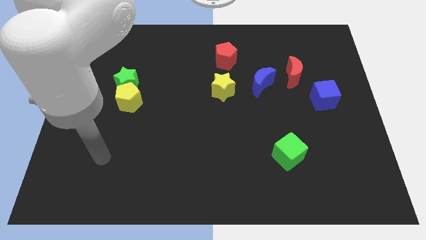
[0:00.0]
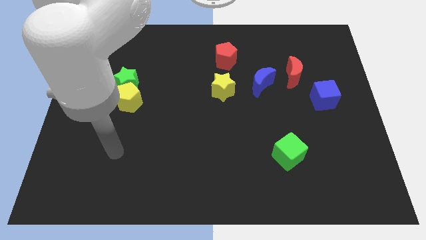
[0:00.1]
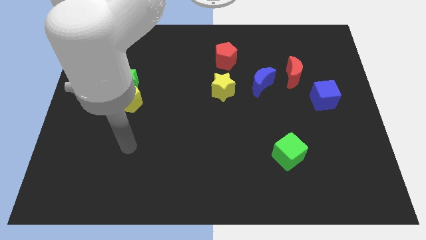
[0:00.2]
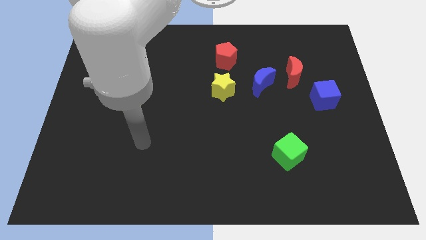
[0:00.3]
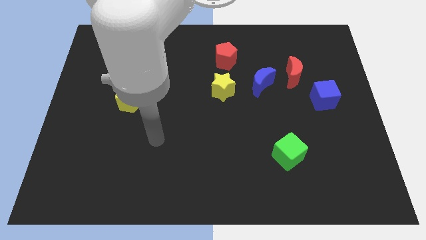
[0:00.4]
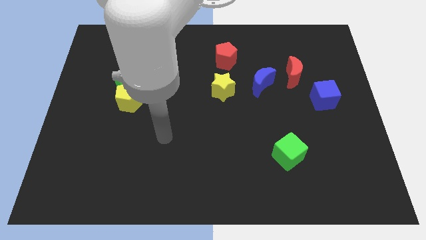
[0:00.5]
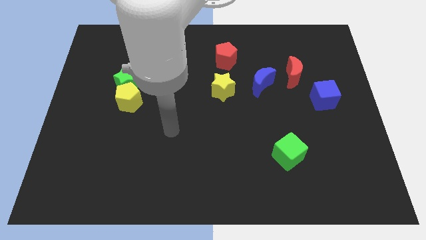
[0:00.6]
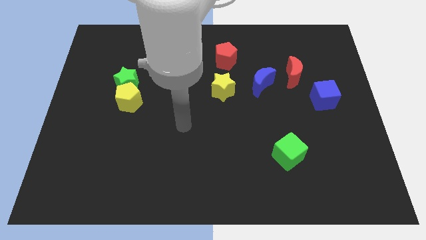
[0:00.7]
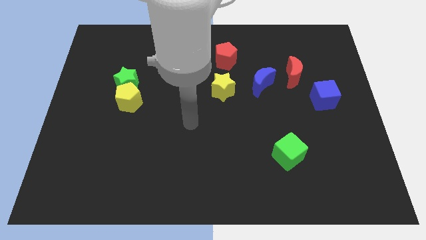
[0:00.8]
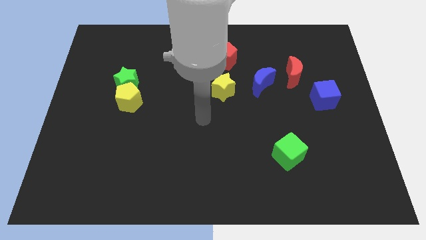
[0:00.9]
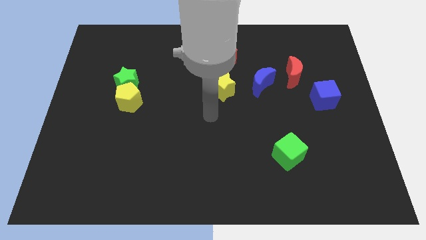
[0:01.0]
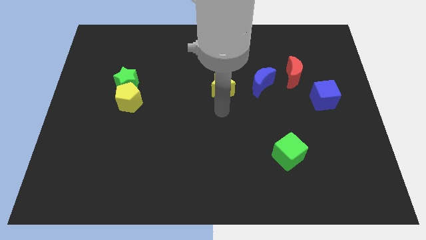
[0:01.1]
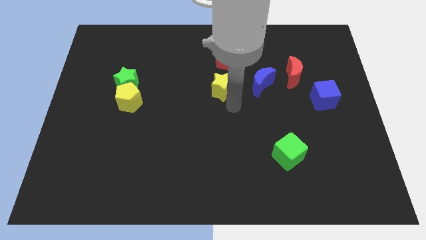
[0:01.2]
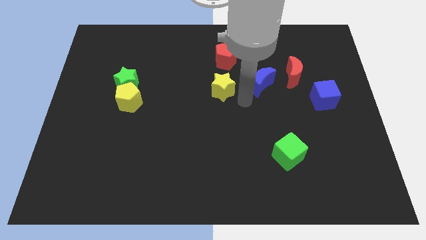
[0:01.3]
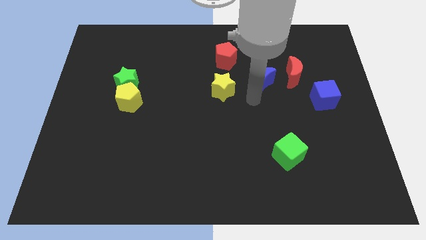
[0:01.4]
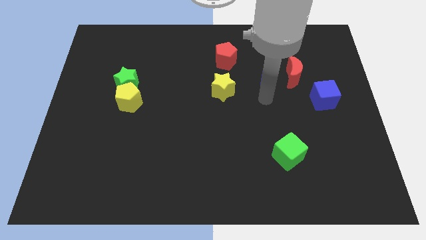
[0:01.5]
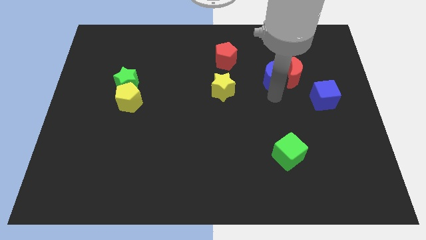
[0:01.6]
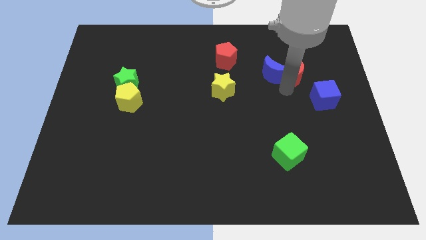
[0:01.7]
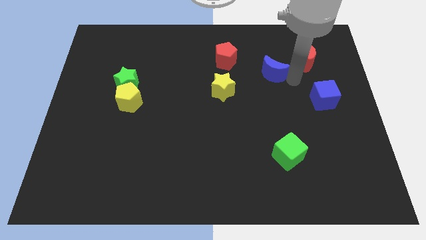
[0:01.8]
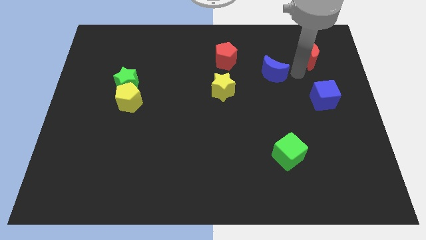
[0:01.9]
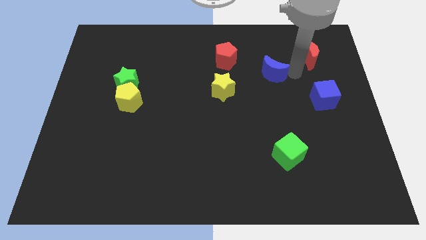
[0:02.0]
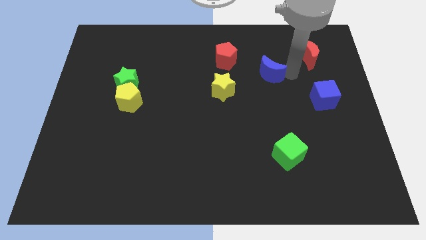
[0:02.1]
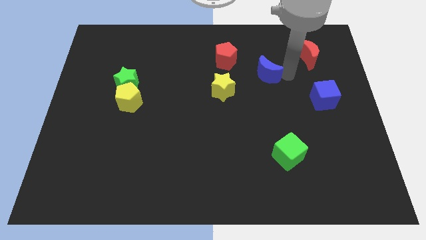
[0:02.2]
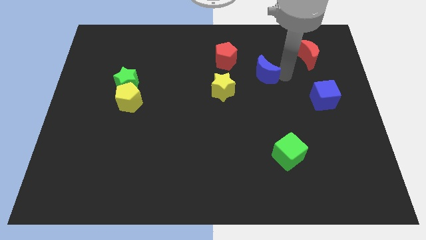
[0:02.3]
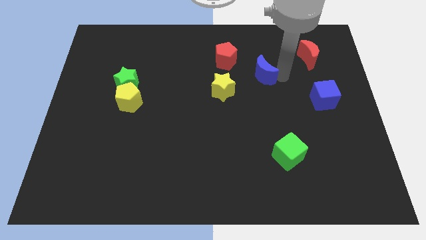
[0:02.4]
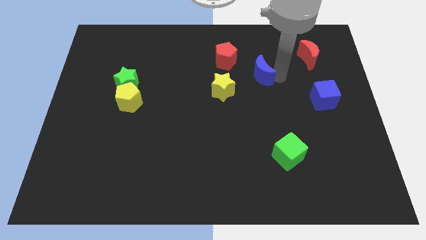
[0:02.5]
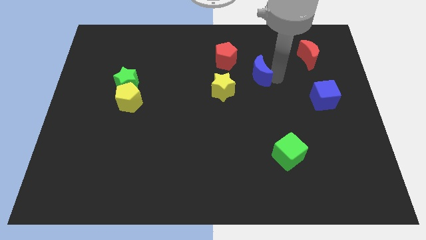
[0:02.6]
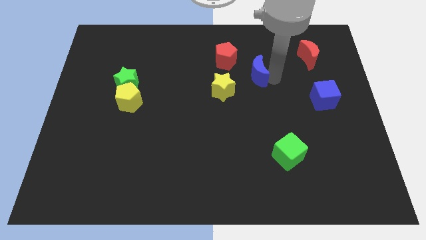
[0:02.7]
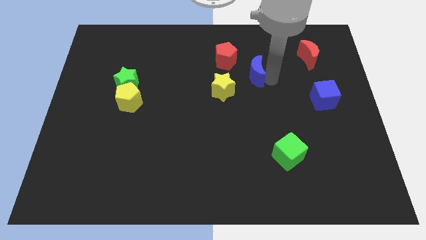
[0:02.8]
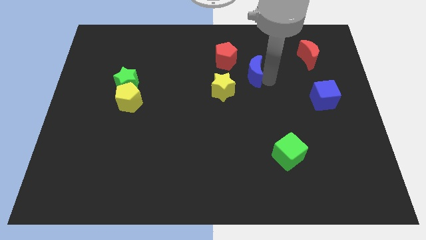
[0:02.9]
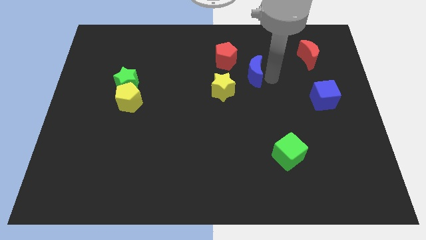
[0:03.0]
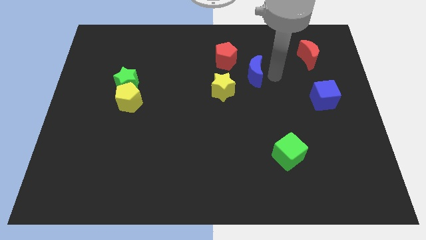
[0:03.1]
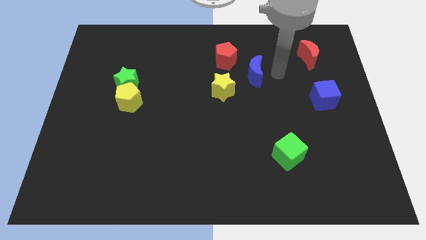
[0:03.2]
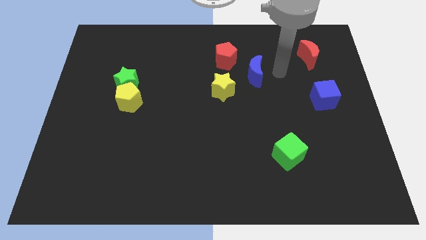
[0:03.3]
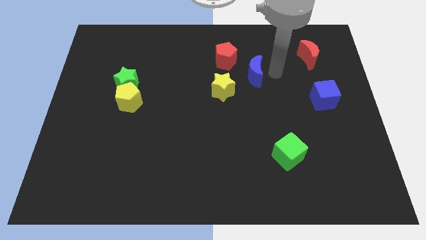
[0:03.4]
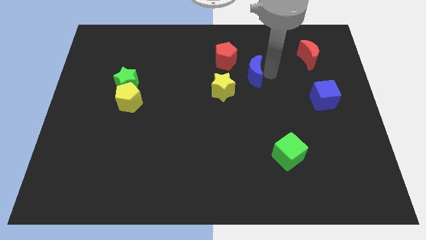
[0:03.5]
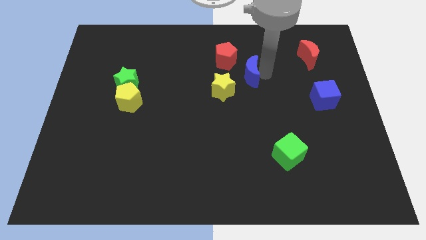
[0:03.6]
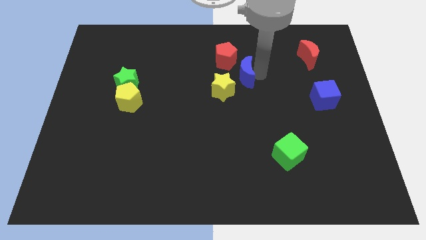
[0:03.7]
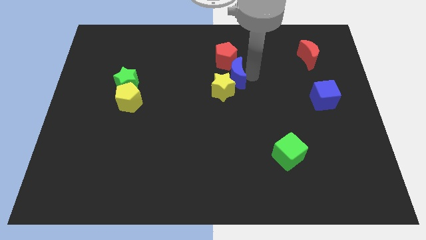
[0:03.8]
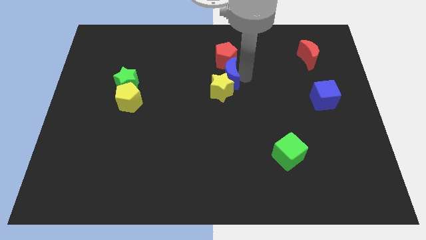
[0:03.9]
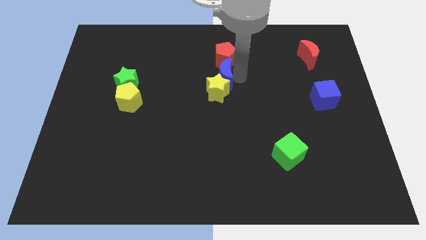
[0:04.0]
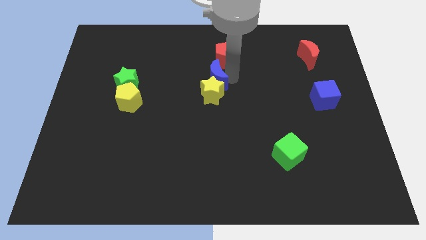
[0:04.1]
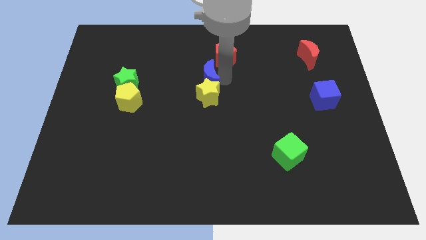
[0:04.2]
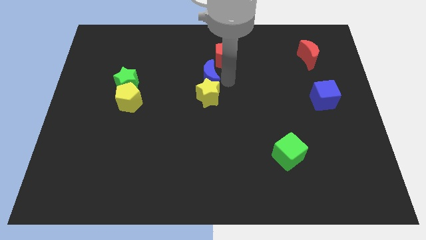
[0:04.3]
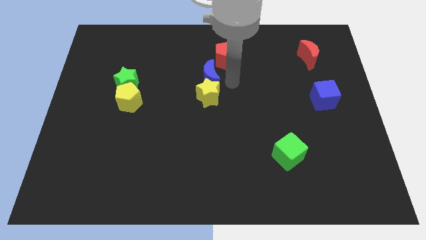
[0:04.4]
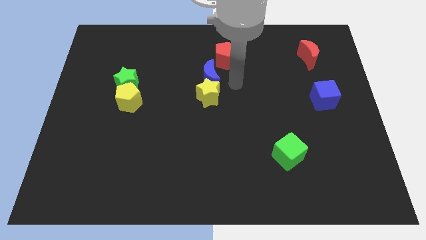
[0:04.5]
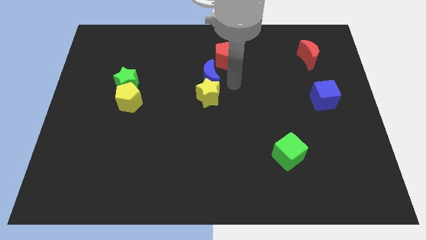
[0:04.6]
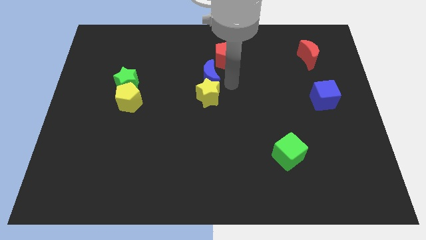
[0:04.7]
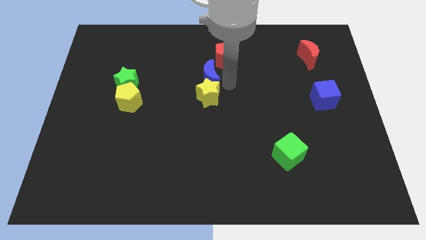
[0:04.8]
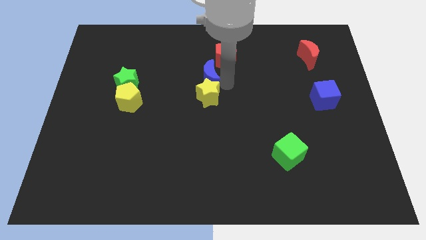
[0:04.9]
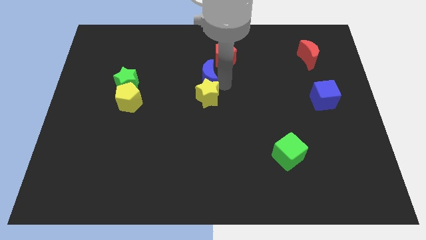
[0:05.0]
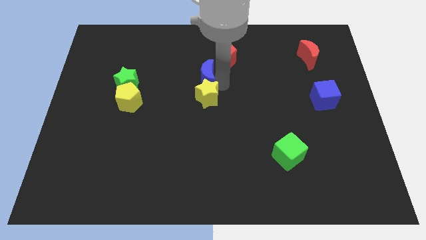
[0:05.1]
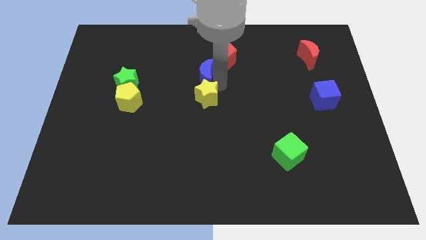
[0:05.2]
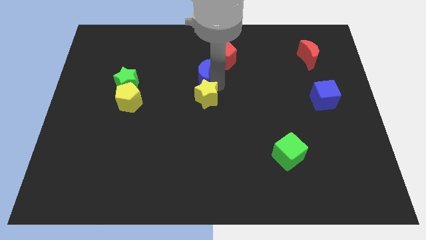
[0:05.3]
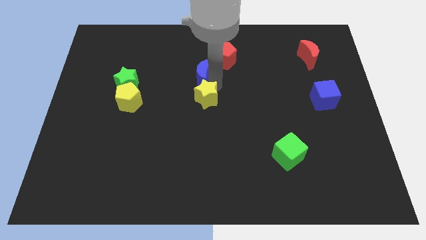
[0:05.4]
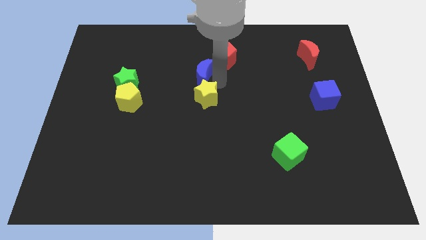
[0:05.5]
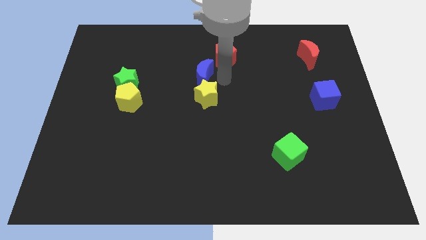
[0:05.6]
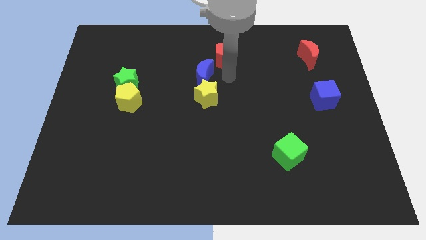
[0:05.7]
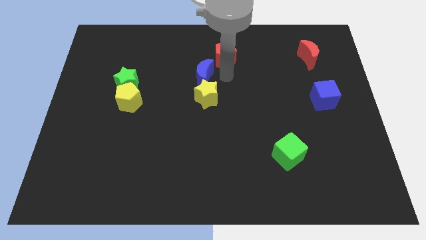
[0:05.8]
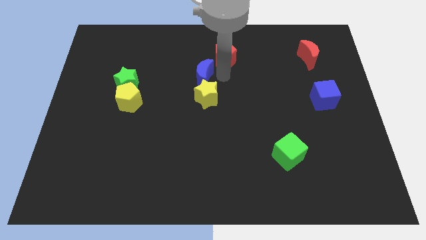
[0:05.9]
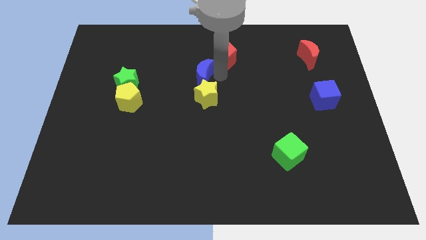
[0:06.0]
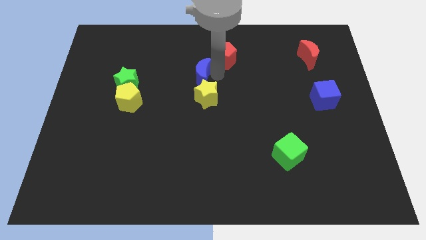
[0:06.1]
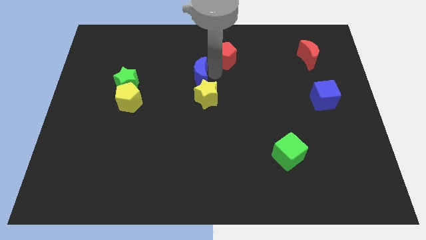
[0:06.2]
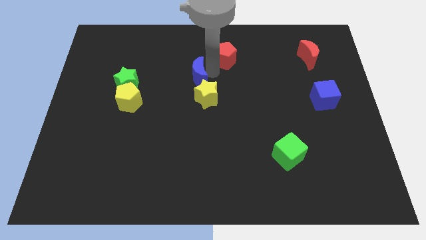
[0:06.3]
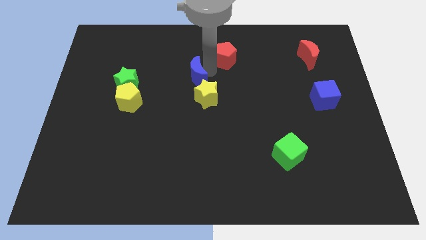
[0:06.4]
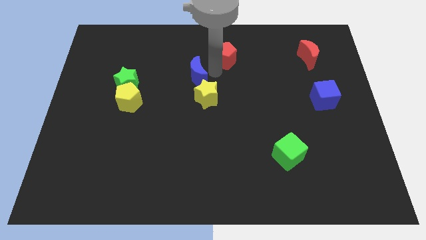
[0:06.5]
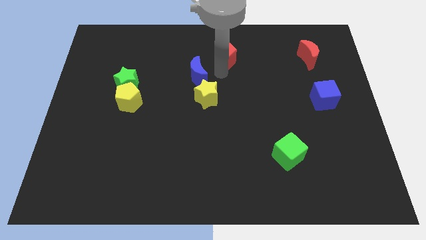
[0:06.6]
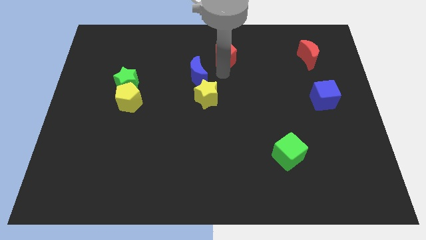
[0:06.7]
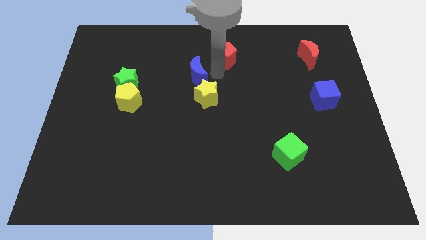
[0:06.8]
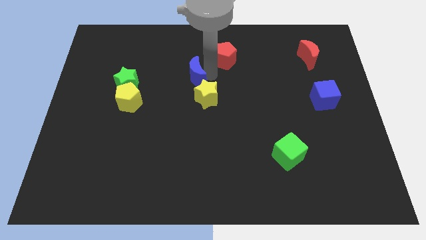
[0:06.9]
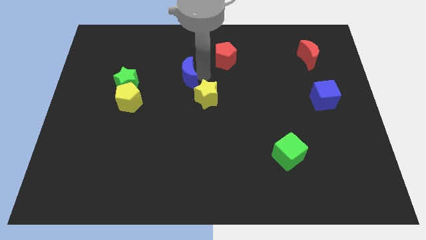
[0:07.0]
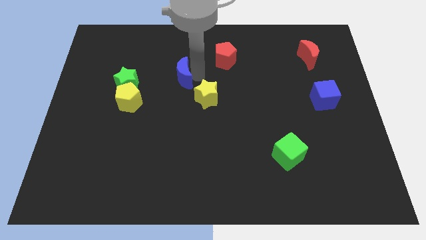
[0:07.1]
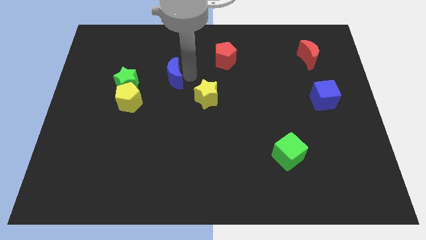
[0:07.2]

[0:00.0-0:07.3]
slide the blue moon diagonally up and to the right of the yellow pentagon
